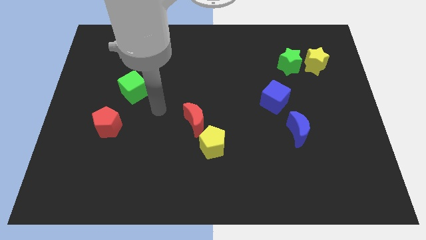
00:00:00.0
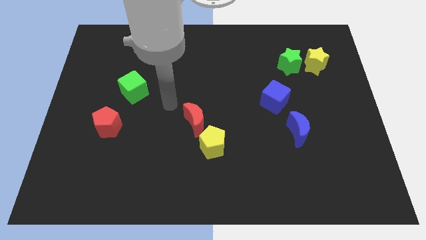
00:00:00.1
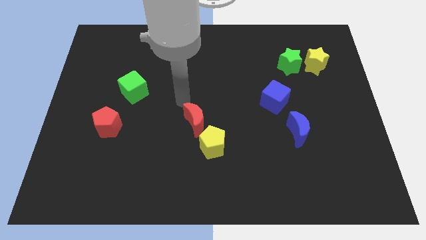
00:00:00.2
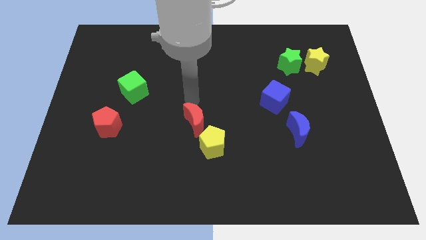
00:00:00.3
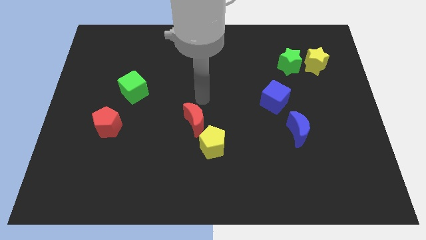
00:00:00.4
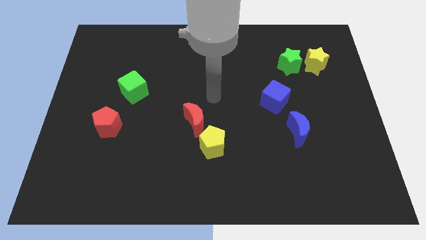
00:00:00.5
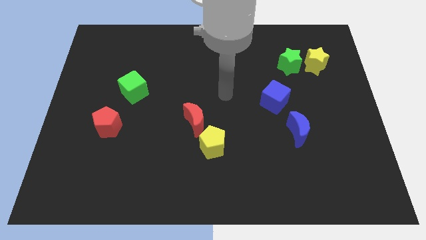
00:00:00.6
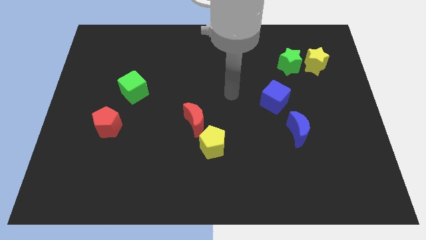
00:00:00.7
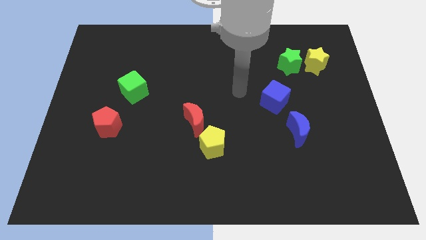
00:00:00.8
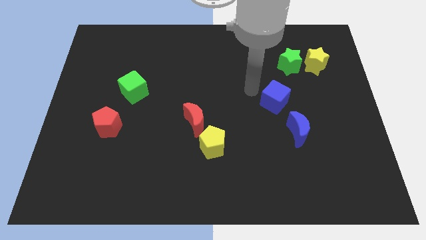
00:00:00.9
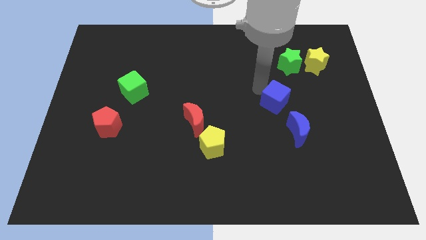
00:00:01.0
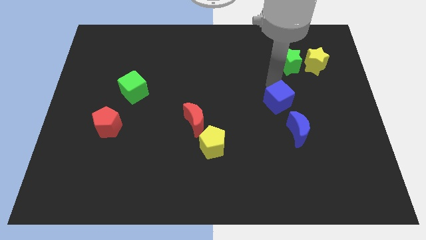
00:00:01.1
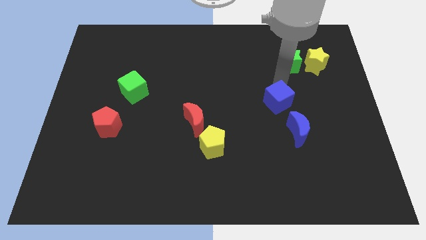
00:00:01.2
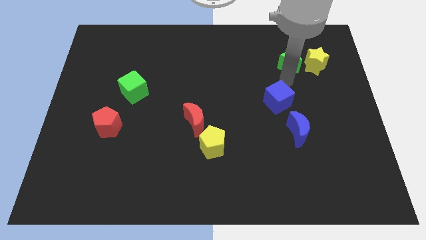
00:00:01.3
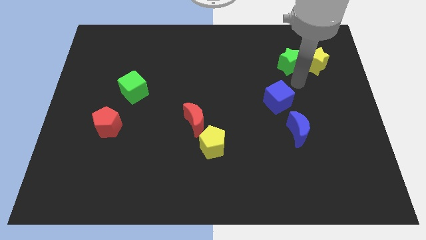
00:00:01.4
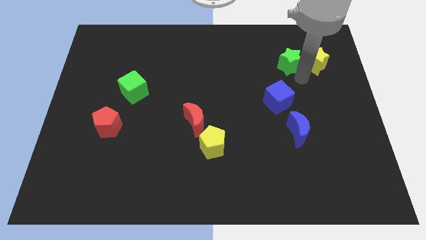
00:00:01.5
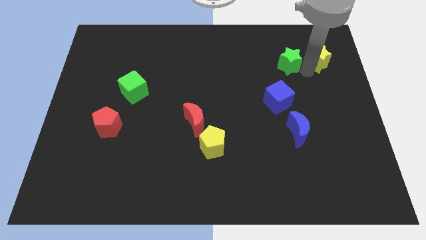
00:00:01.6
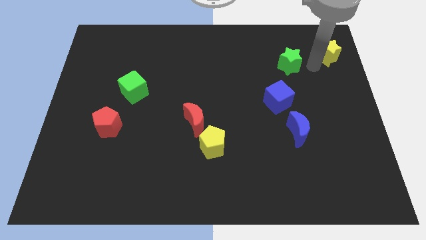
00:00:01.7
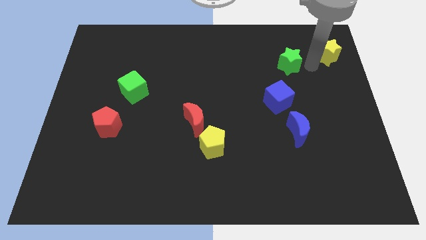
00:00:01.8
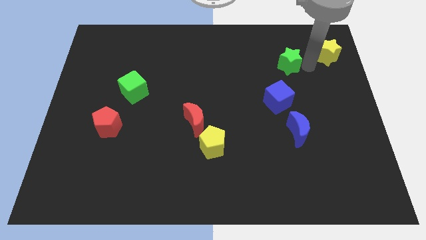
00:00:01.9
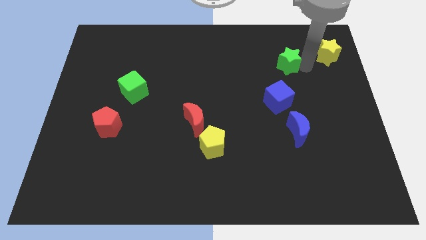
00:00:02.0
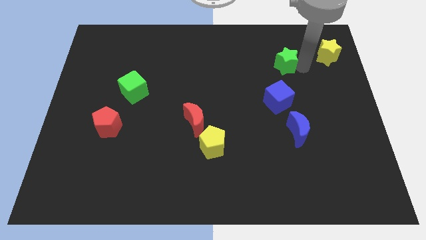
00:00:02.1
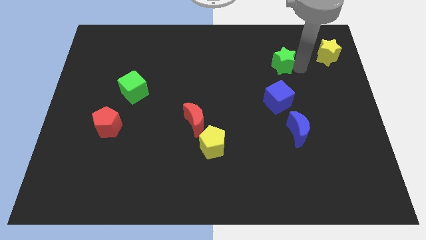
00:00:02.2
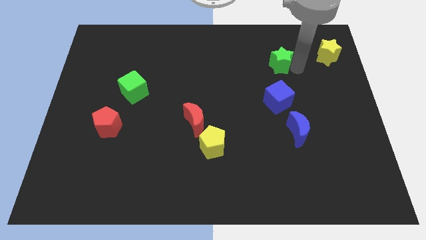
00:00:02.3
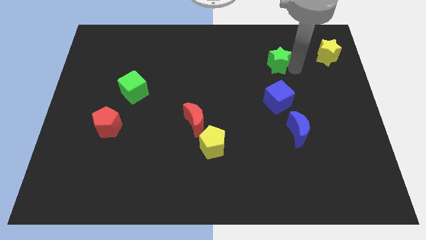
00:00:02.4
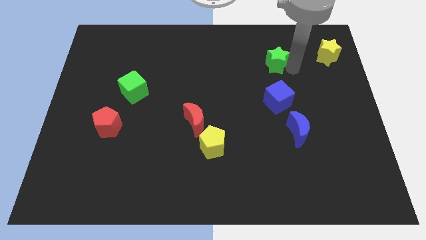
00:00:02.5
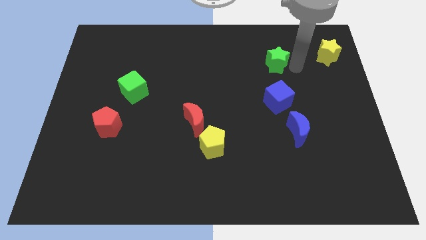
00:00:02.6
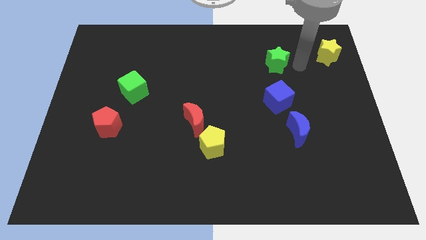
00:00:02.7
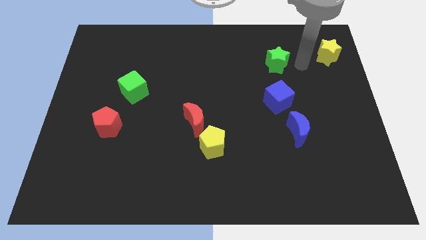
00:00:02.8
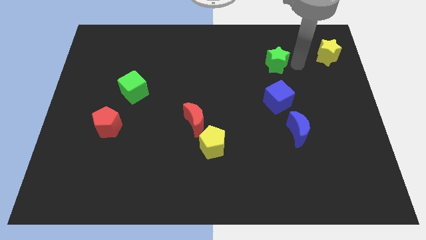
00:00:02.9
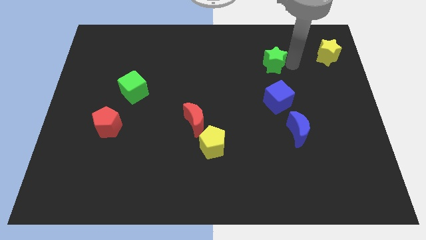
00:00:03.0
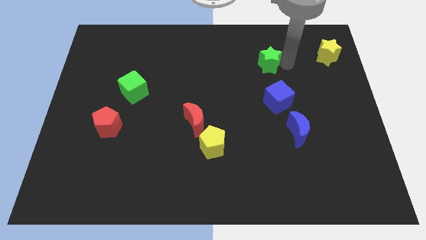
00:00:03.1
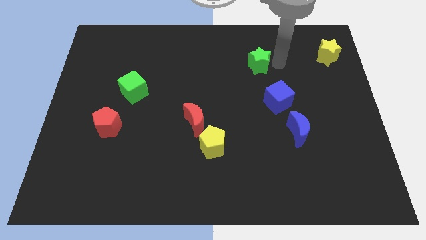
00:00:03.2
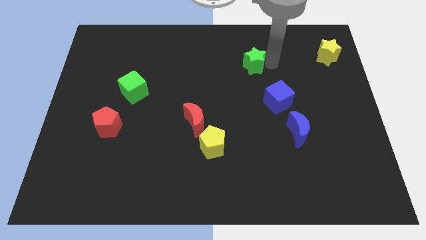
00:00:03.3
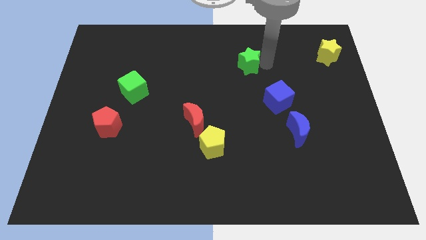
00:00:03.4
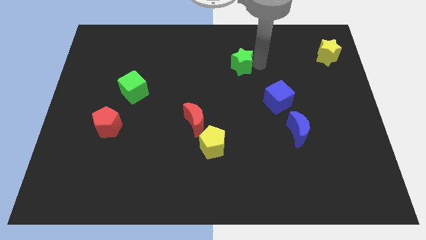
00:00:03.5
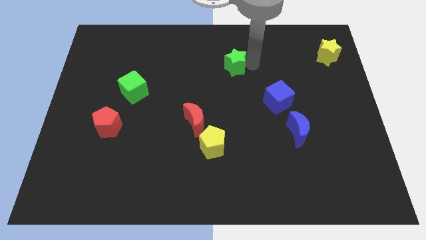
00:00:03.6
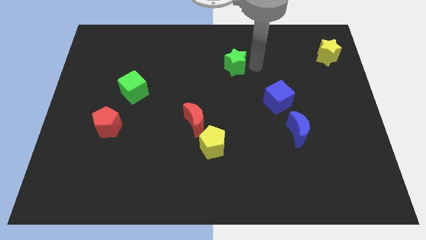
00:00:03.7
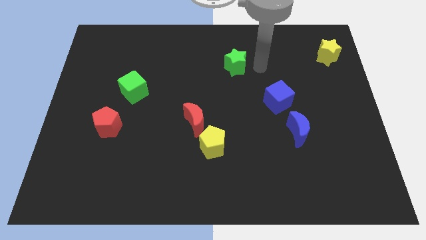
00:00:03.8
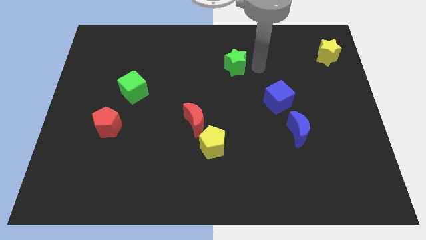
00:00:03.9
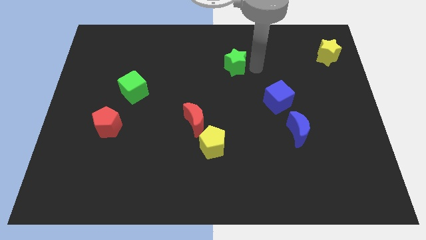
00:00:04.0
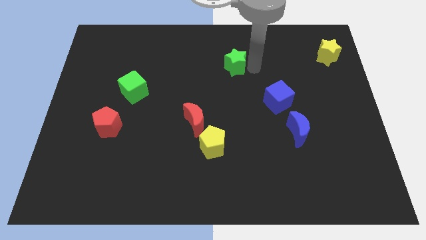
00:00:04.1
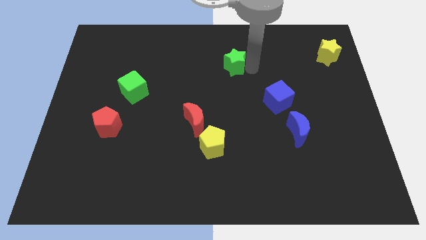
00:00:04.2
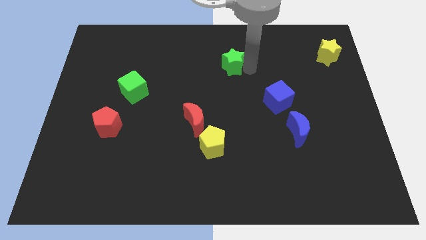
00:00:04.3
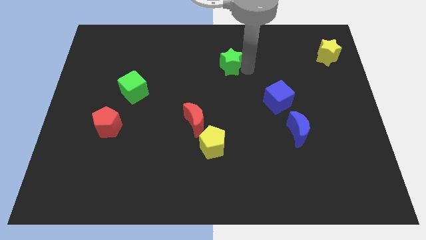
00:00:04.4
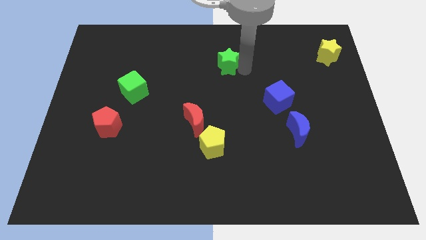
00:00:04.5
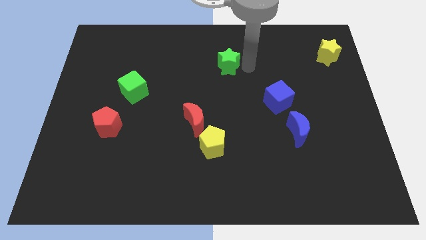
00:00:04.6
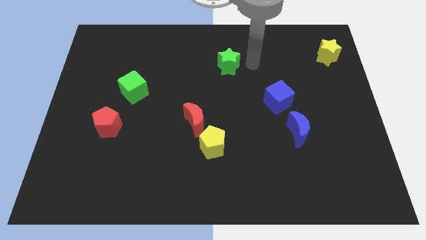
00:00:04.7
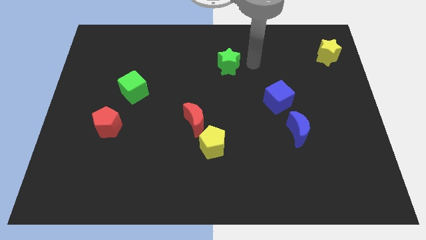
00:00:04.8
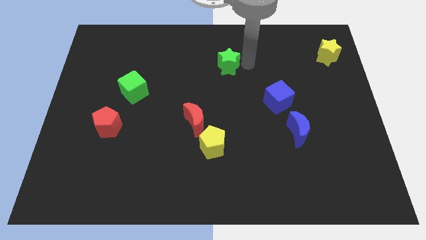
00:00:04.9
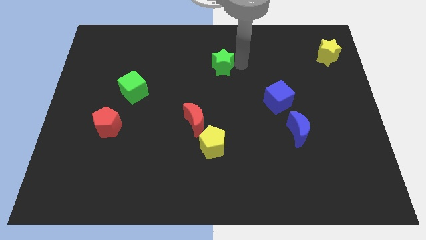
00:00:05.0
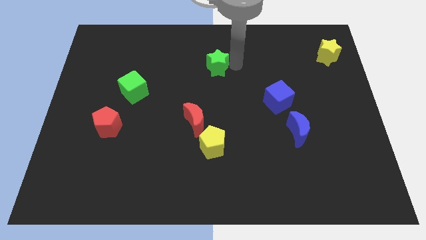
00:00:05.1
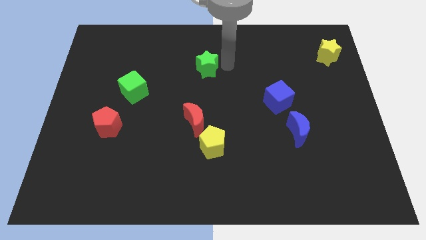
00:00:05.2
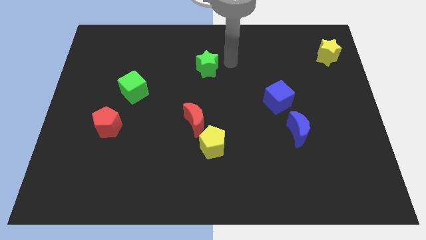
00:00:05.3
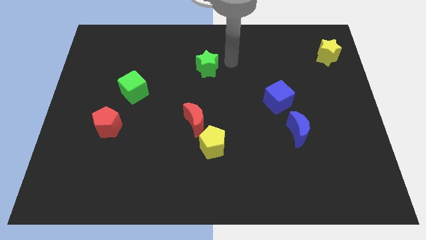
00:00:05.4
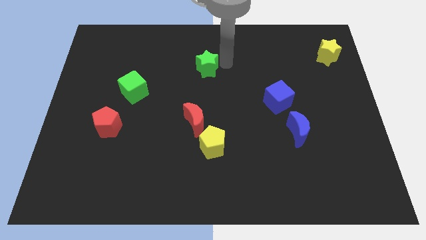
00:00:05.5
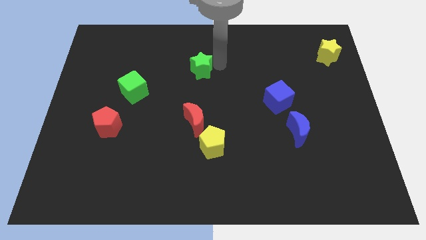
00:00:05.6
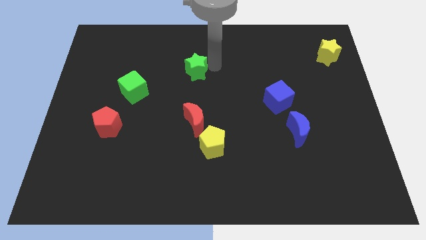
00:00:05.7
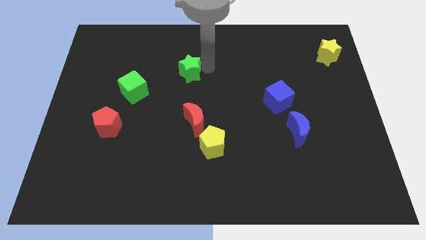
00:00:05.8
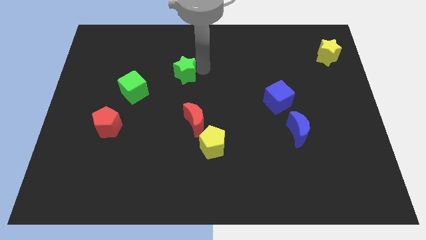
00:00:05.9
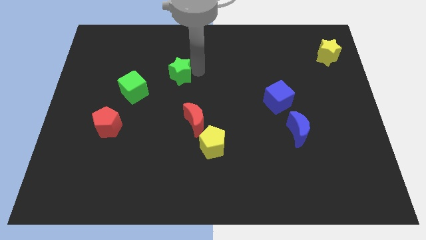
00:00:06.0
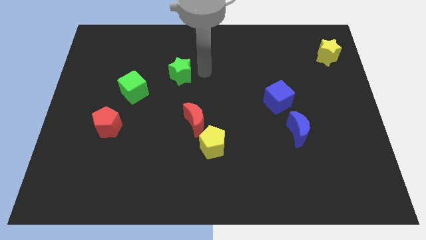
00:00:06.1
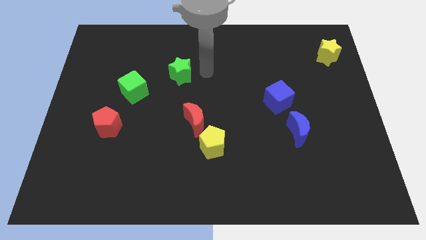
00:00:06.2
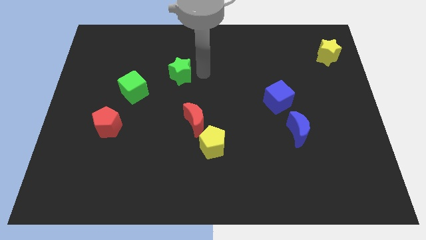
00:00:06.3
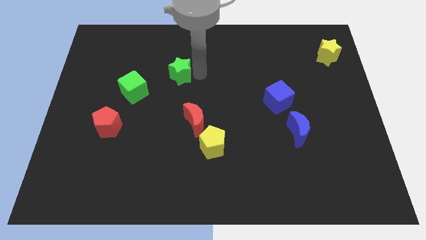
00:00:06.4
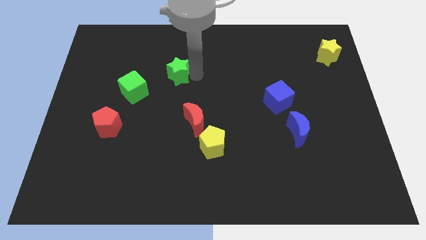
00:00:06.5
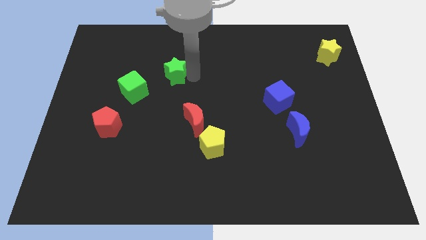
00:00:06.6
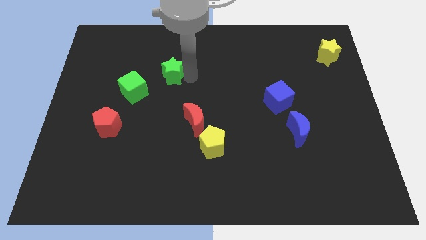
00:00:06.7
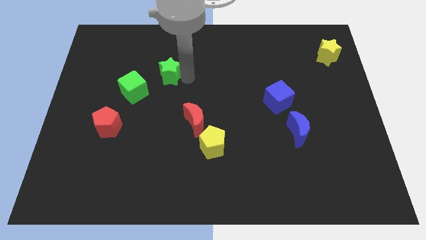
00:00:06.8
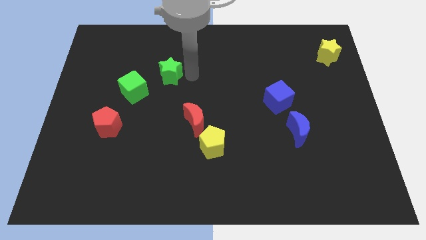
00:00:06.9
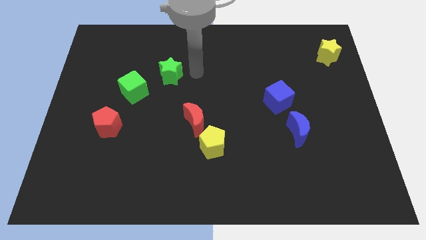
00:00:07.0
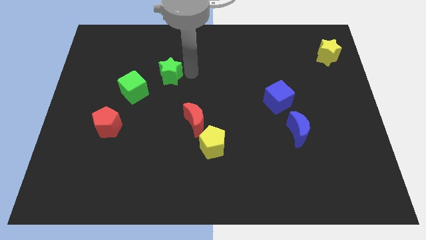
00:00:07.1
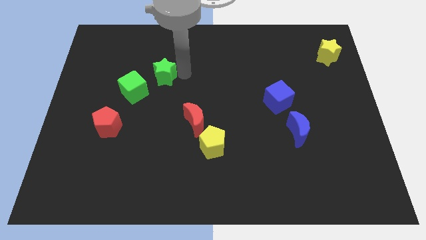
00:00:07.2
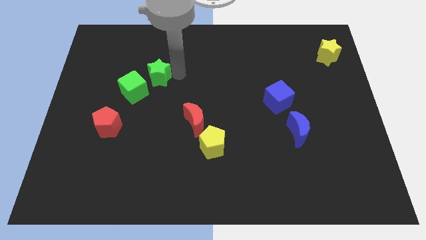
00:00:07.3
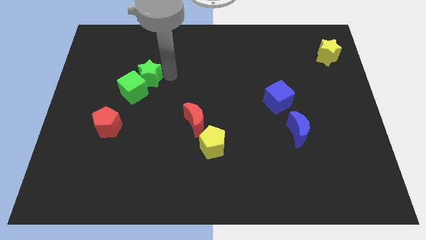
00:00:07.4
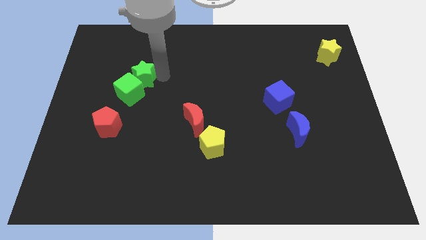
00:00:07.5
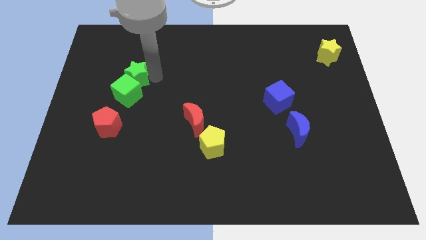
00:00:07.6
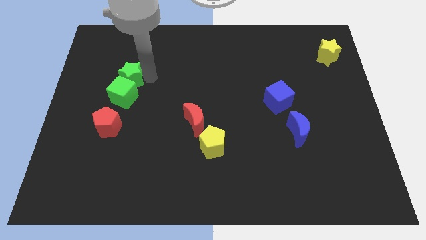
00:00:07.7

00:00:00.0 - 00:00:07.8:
slide the green star to the top side of the red pentagon
